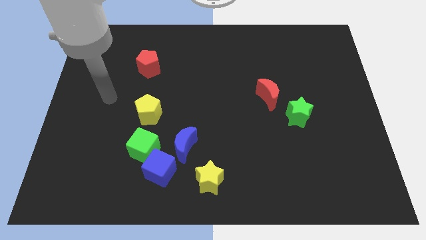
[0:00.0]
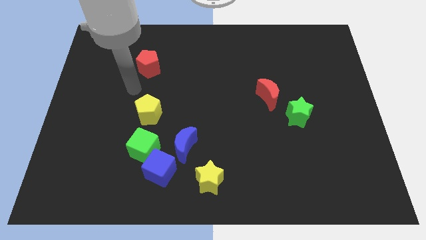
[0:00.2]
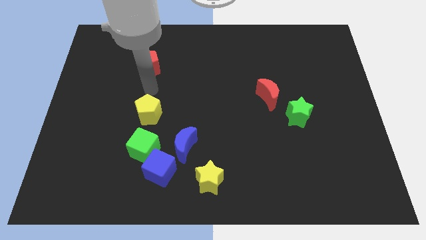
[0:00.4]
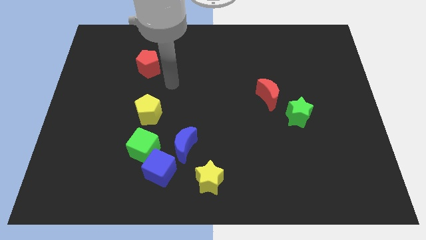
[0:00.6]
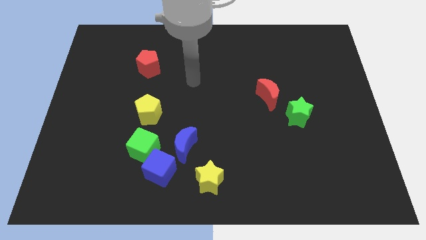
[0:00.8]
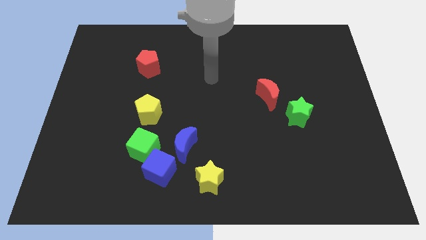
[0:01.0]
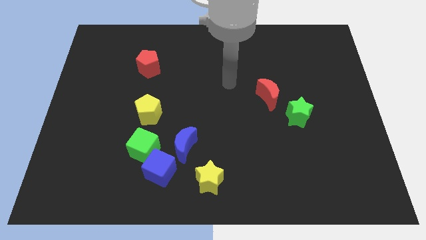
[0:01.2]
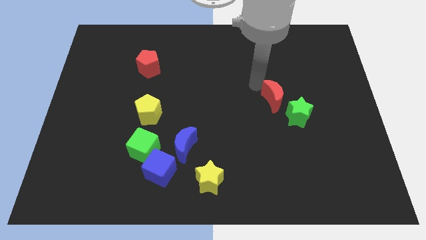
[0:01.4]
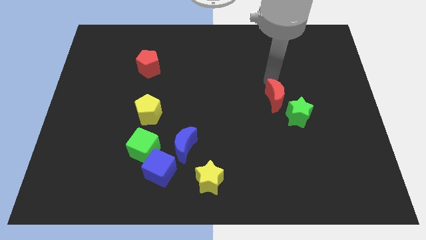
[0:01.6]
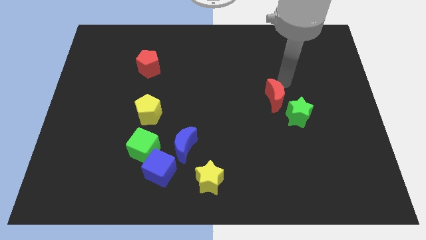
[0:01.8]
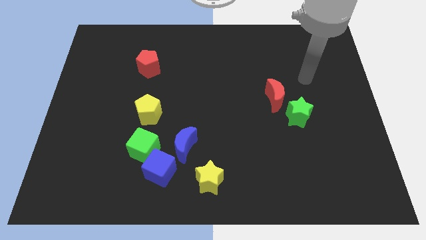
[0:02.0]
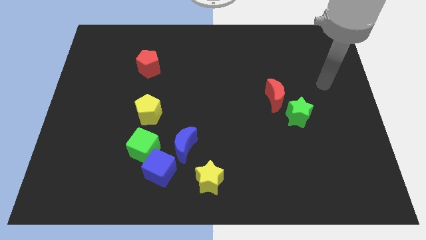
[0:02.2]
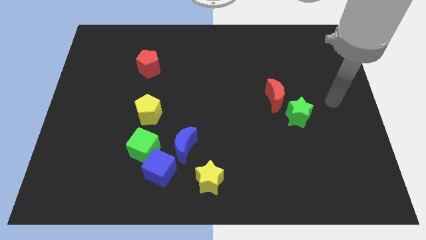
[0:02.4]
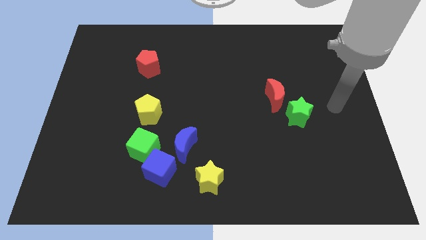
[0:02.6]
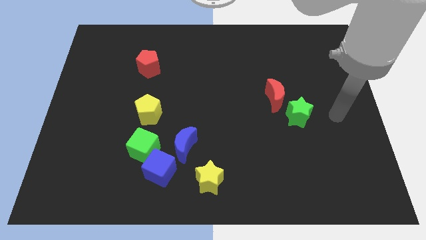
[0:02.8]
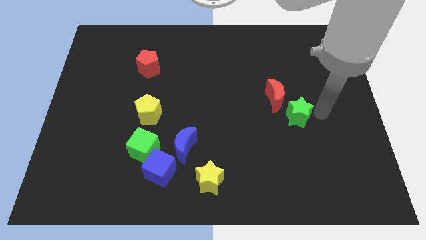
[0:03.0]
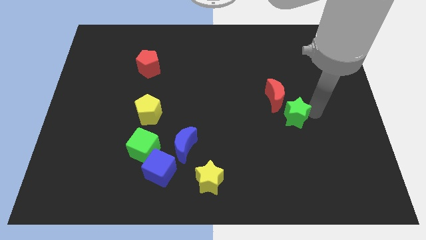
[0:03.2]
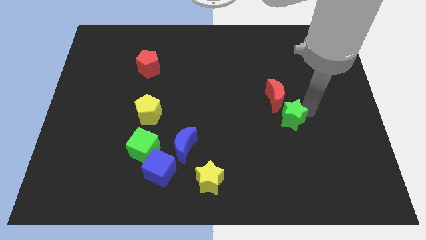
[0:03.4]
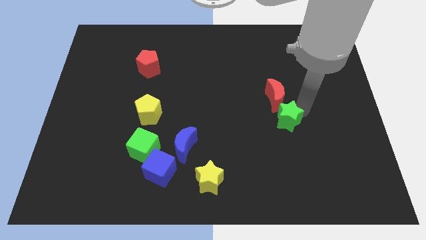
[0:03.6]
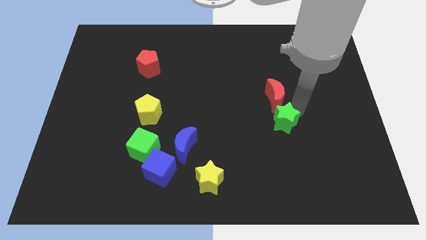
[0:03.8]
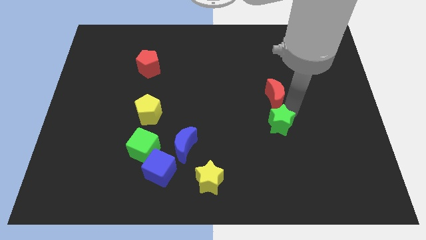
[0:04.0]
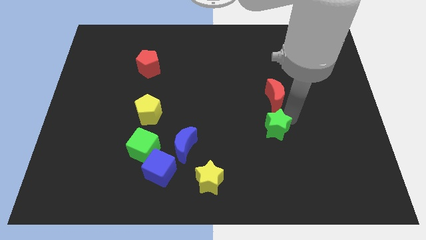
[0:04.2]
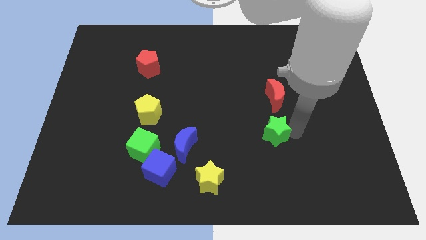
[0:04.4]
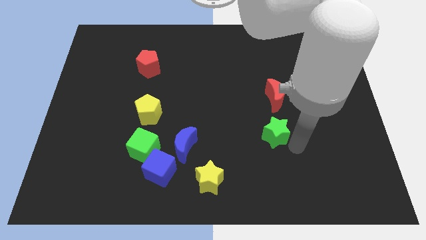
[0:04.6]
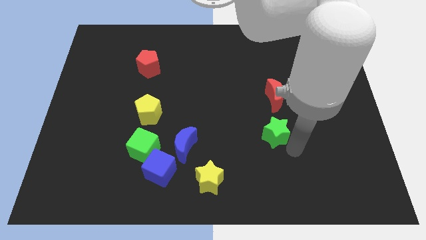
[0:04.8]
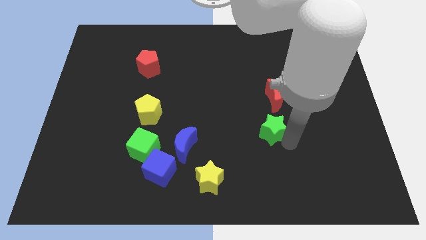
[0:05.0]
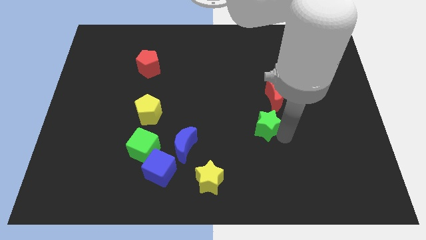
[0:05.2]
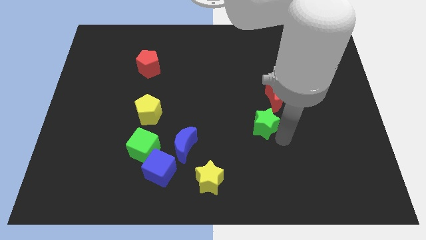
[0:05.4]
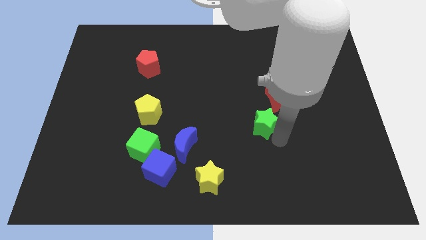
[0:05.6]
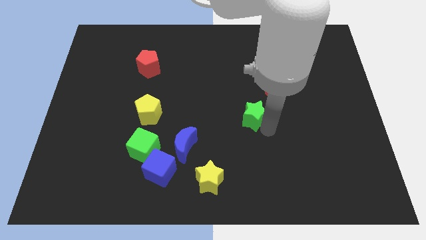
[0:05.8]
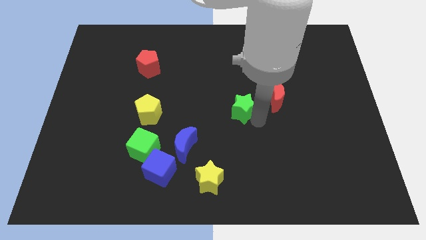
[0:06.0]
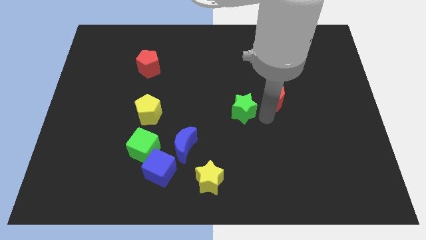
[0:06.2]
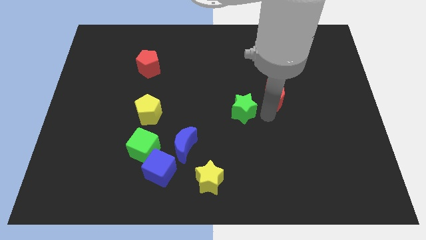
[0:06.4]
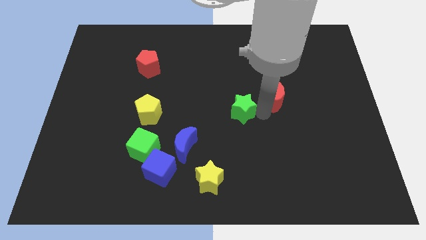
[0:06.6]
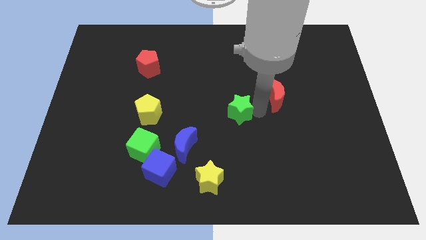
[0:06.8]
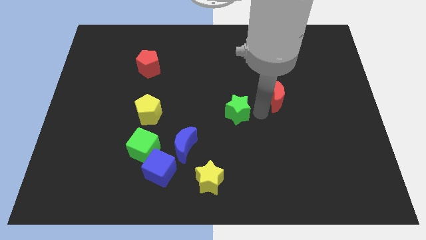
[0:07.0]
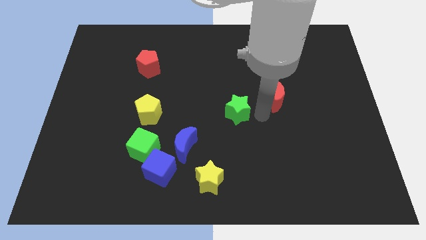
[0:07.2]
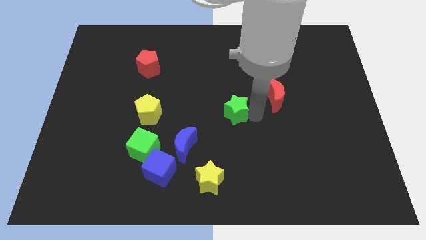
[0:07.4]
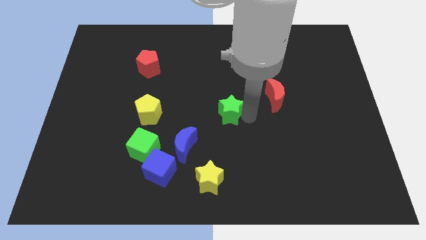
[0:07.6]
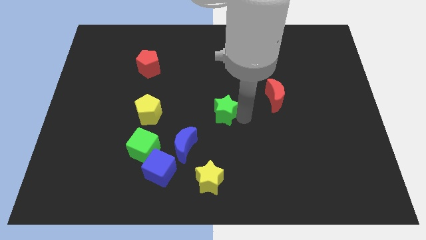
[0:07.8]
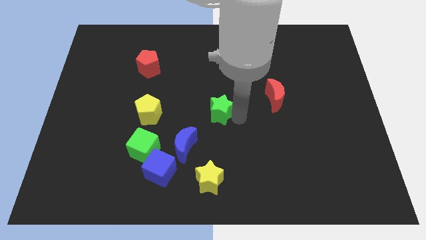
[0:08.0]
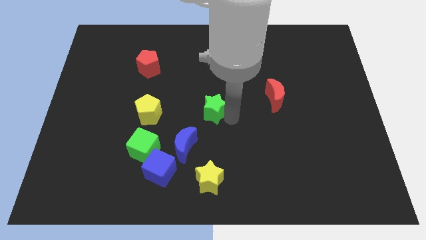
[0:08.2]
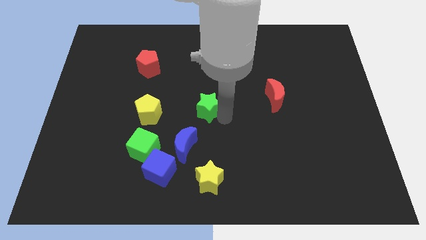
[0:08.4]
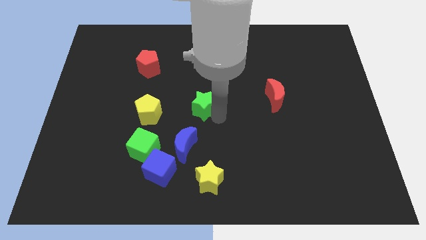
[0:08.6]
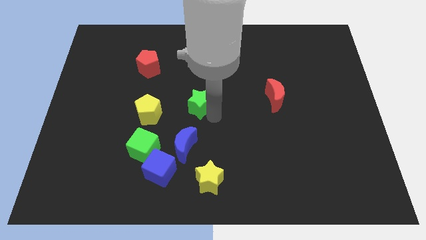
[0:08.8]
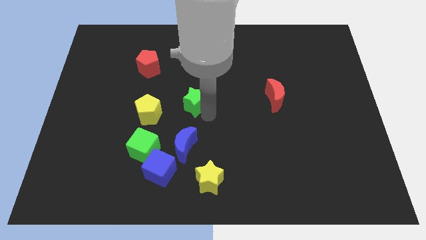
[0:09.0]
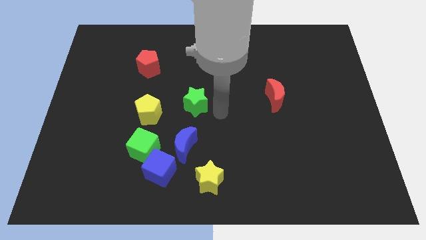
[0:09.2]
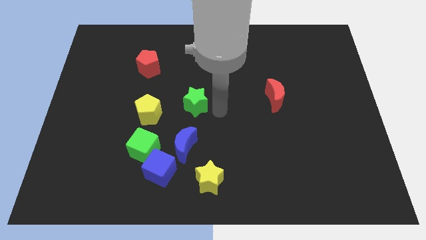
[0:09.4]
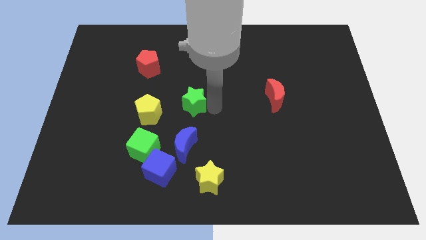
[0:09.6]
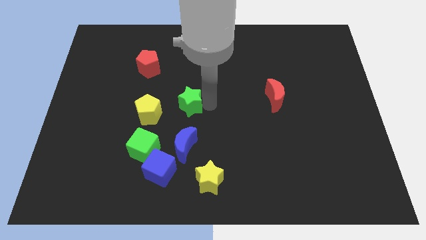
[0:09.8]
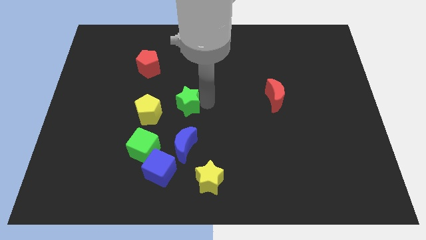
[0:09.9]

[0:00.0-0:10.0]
push the green star to the top right side of the yellow pentagon

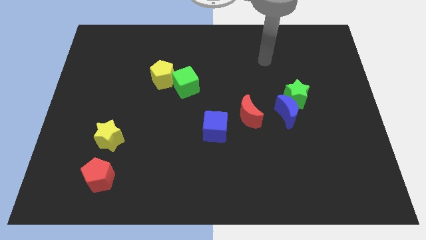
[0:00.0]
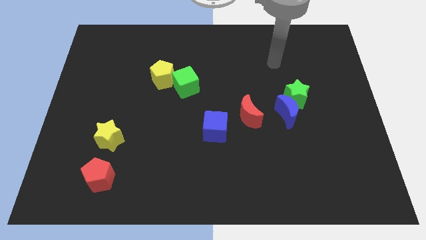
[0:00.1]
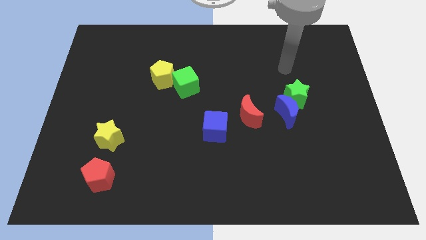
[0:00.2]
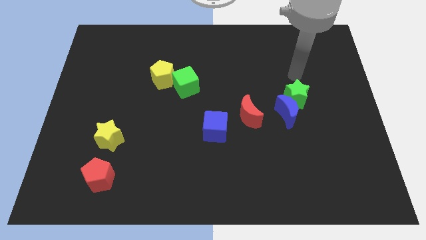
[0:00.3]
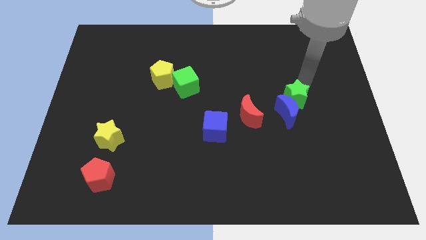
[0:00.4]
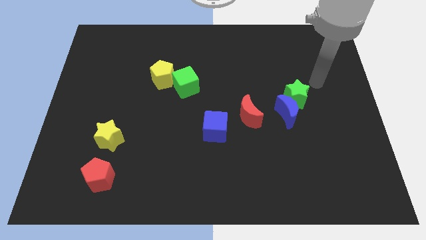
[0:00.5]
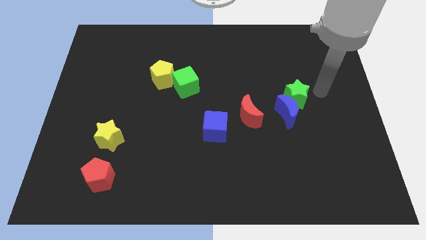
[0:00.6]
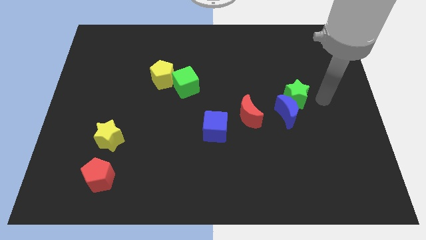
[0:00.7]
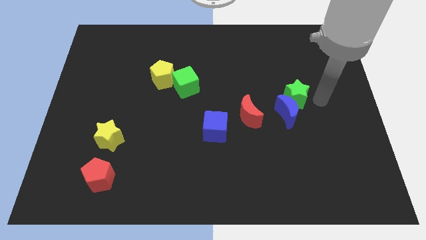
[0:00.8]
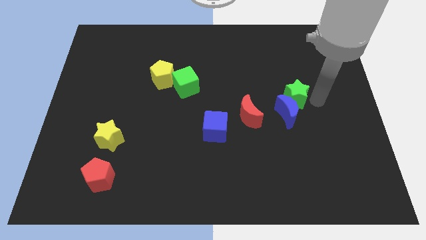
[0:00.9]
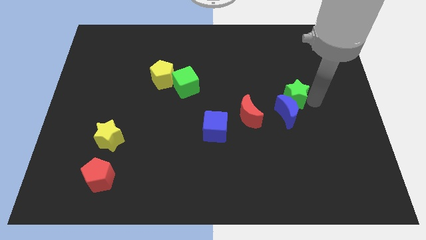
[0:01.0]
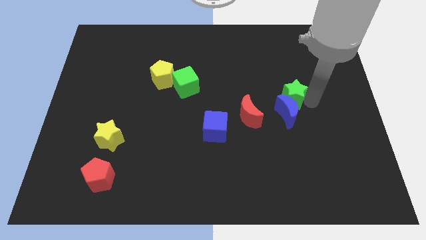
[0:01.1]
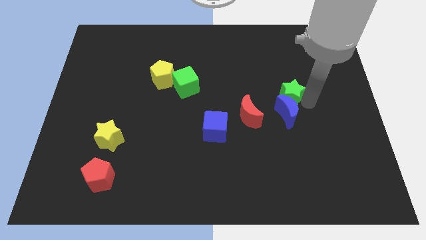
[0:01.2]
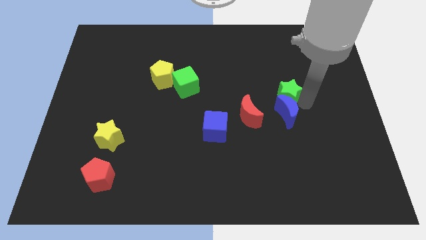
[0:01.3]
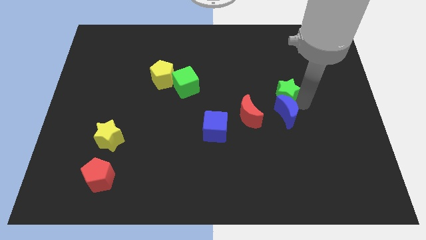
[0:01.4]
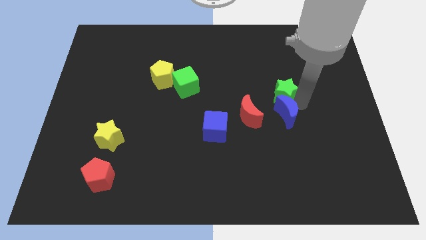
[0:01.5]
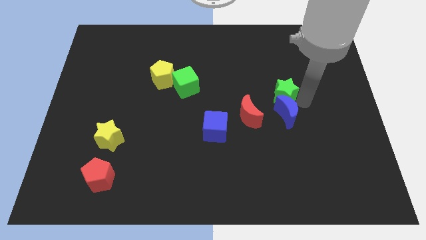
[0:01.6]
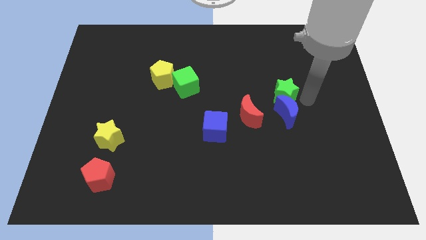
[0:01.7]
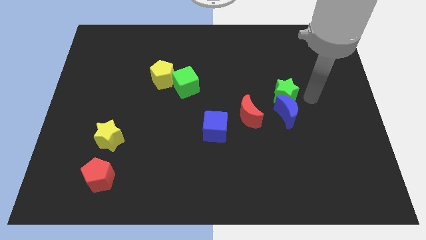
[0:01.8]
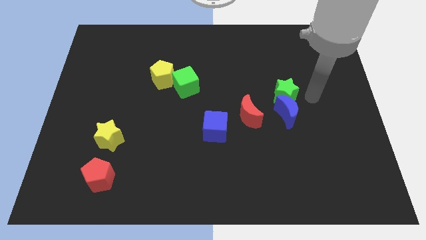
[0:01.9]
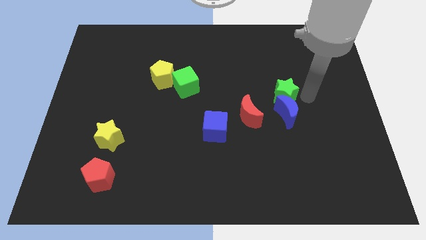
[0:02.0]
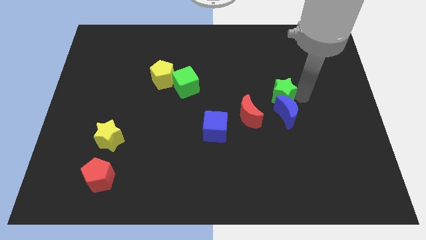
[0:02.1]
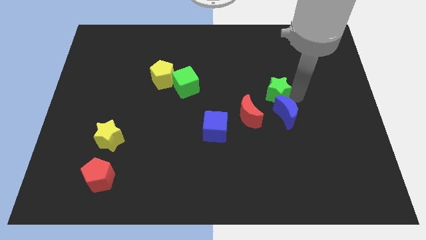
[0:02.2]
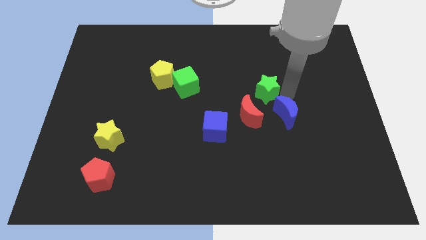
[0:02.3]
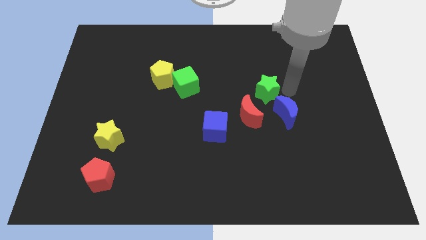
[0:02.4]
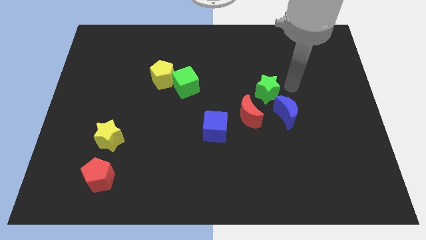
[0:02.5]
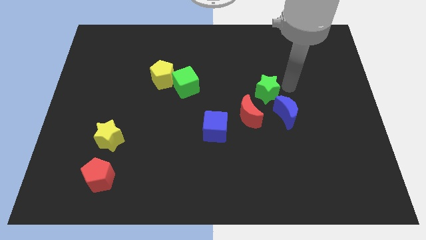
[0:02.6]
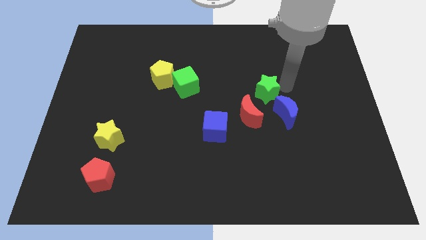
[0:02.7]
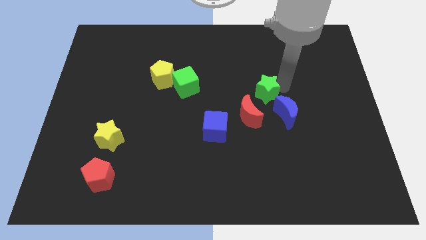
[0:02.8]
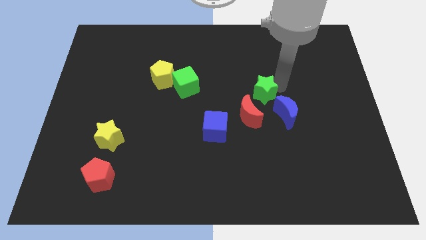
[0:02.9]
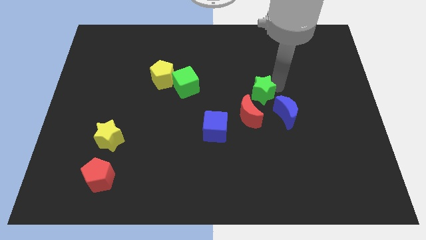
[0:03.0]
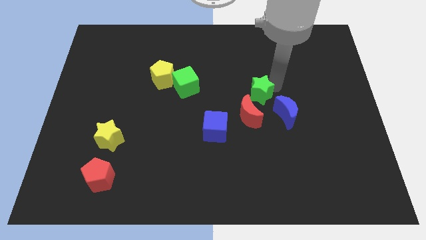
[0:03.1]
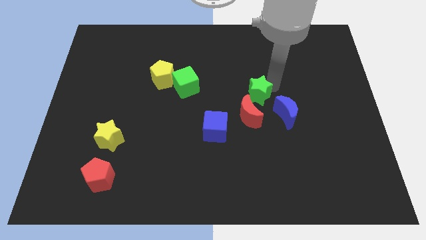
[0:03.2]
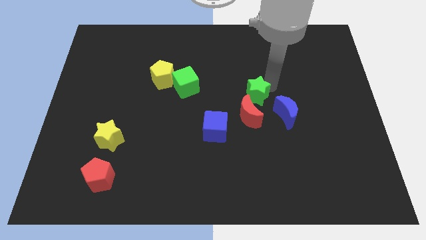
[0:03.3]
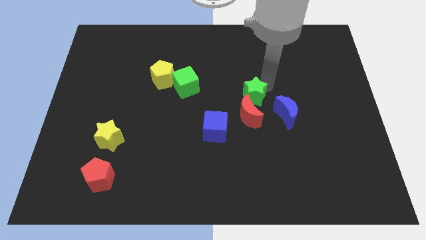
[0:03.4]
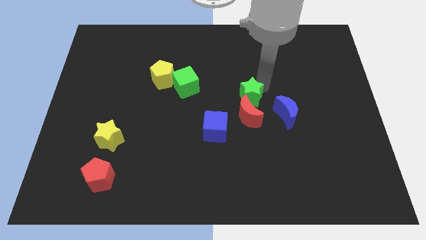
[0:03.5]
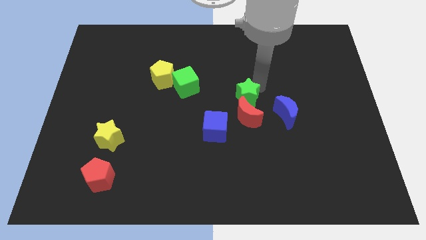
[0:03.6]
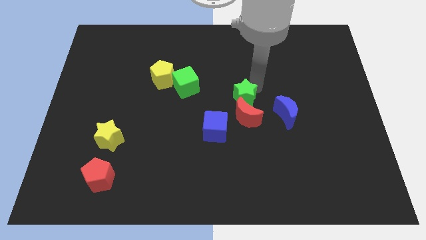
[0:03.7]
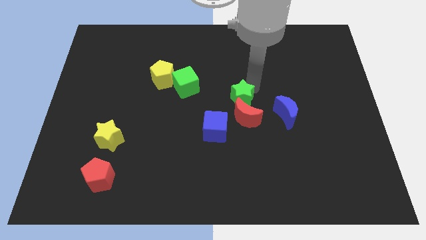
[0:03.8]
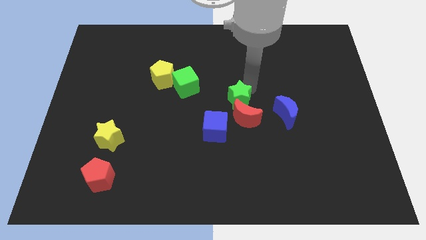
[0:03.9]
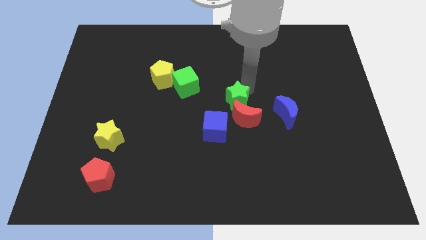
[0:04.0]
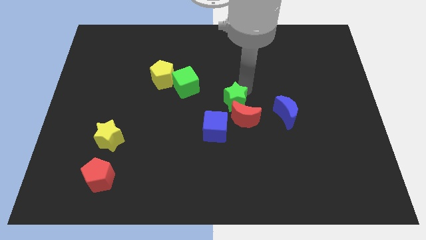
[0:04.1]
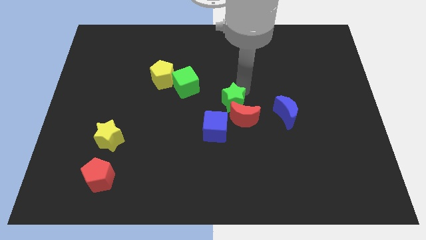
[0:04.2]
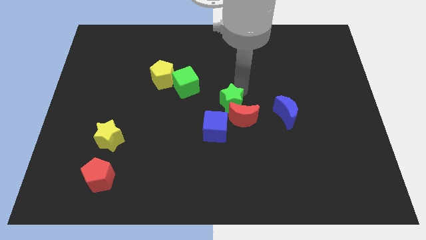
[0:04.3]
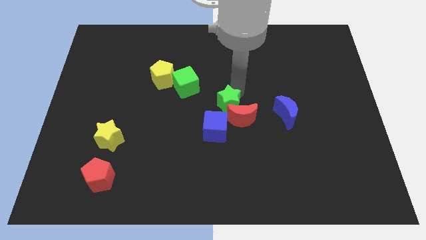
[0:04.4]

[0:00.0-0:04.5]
push the green star just left of the red moon
